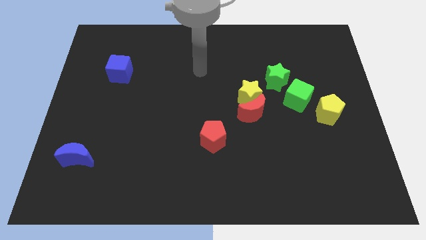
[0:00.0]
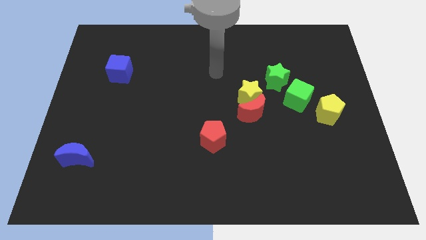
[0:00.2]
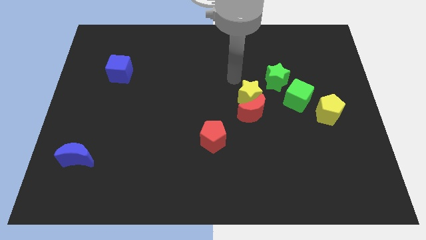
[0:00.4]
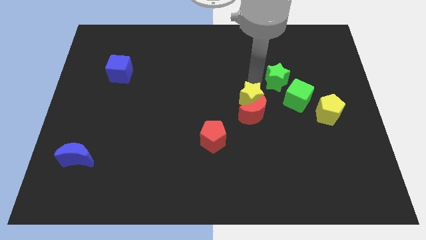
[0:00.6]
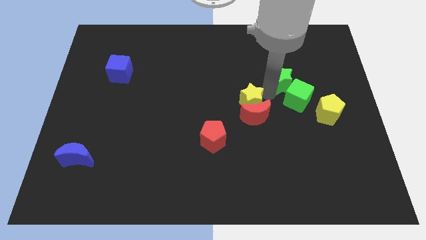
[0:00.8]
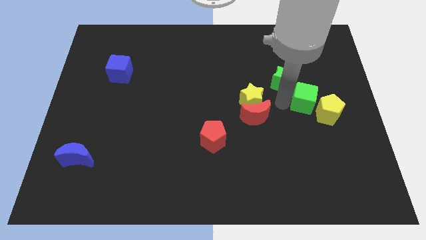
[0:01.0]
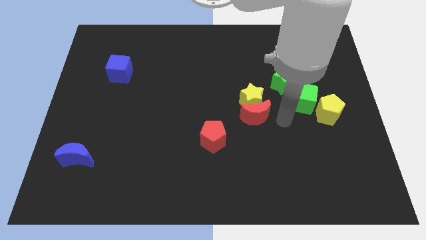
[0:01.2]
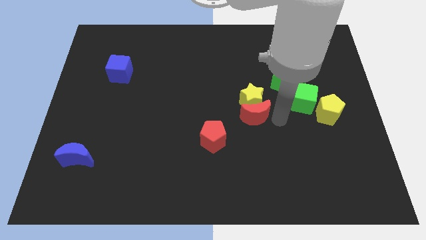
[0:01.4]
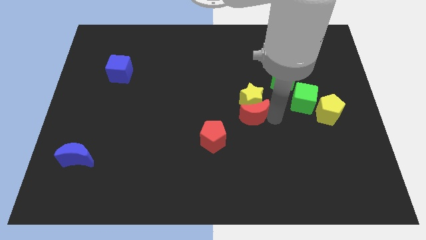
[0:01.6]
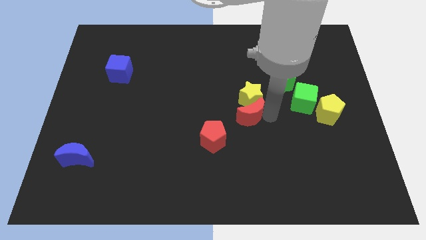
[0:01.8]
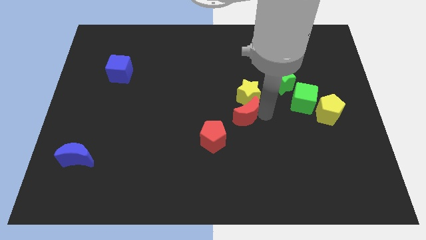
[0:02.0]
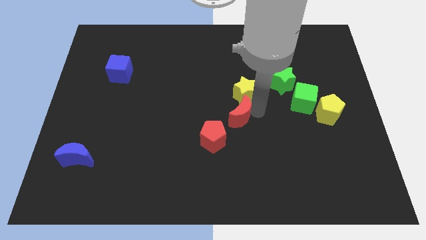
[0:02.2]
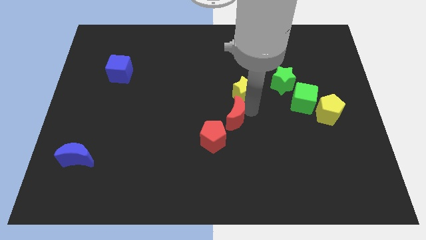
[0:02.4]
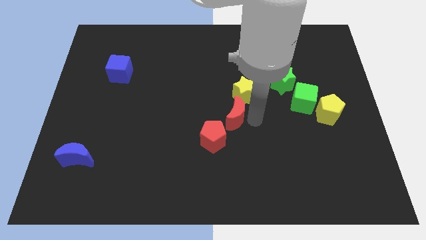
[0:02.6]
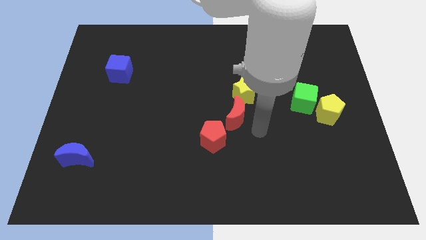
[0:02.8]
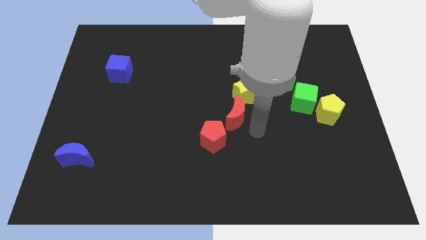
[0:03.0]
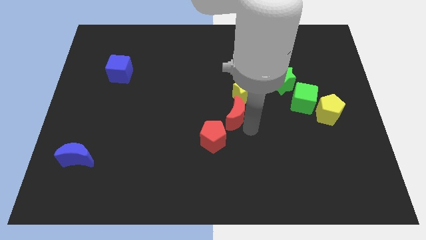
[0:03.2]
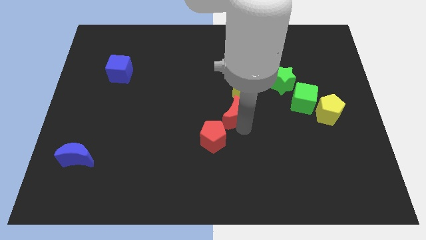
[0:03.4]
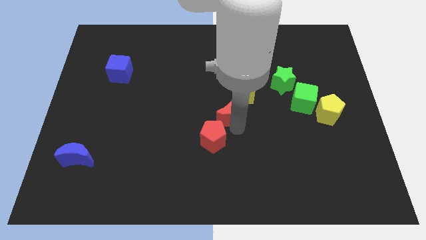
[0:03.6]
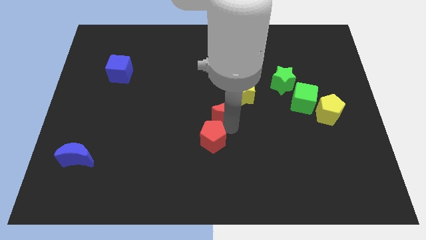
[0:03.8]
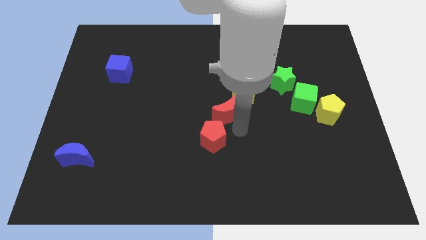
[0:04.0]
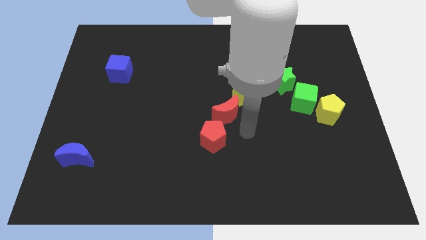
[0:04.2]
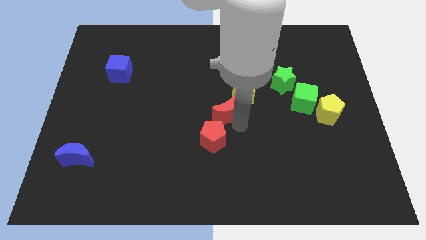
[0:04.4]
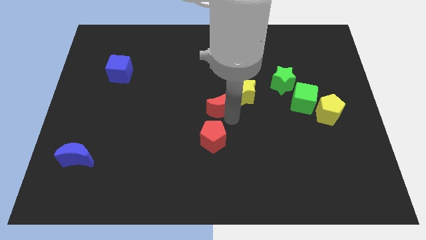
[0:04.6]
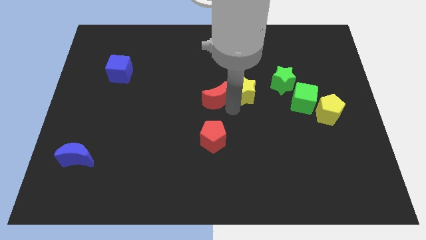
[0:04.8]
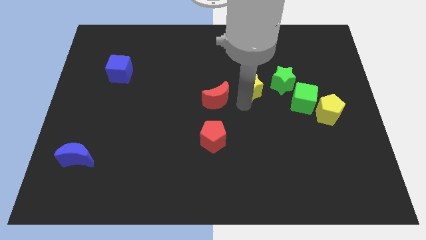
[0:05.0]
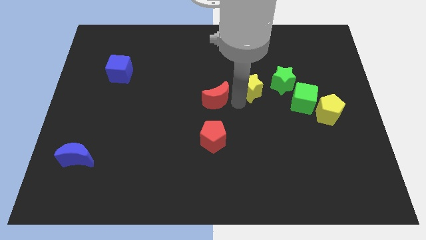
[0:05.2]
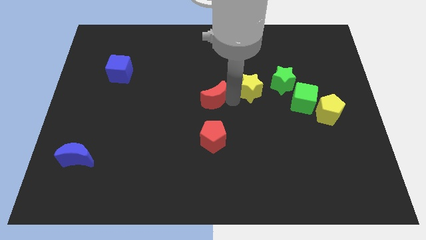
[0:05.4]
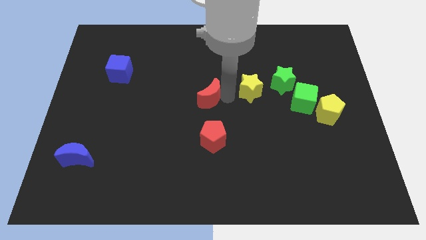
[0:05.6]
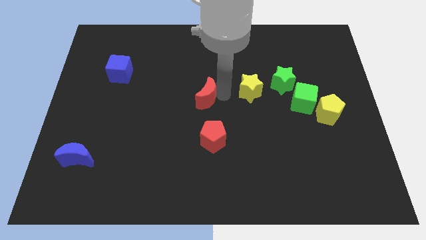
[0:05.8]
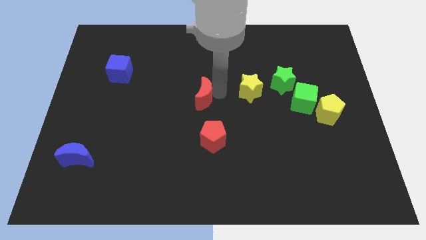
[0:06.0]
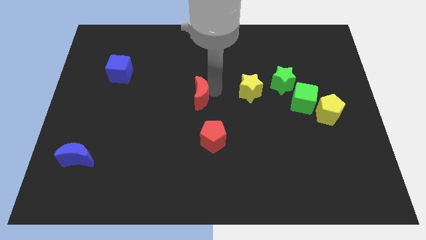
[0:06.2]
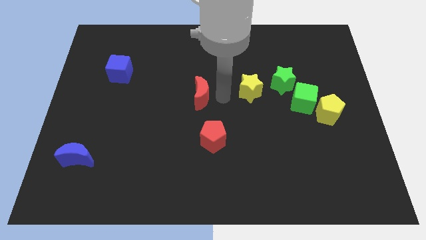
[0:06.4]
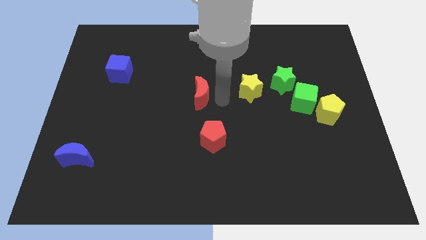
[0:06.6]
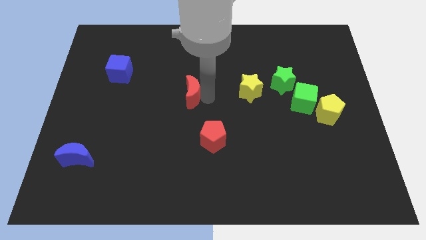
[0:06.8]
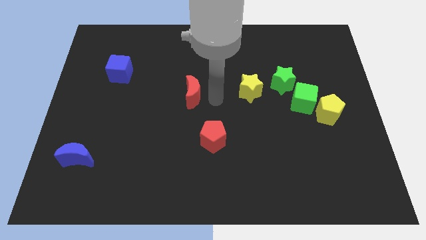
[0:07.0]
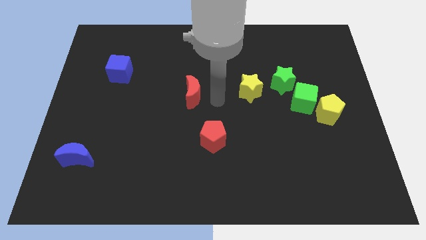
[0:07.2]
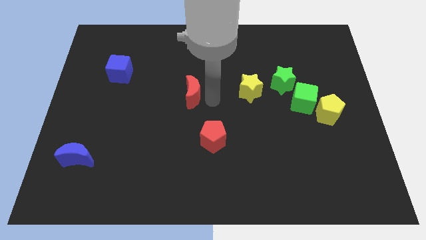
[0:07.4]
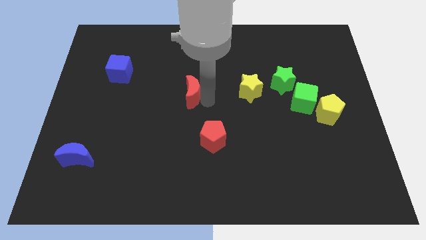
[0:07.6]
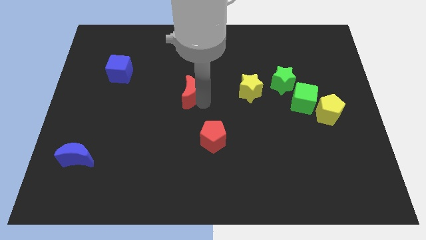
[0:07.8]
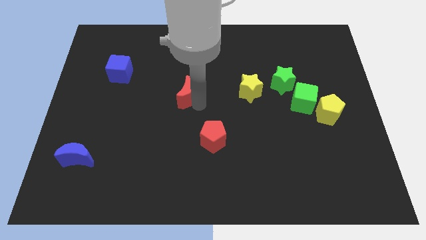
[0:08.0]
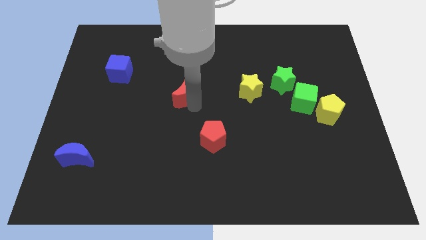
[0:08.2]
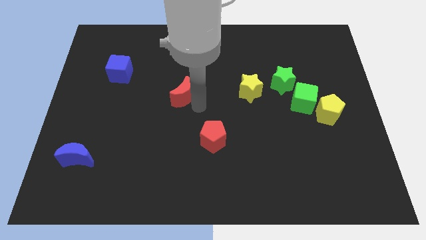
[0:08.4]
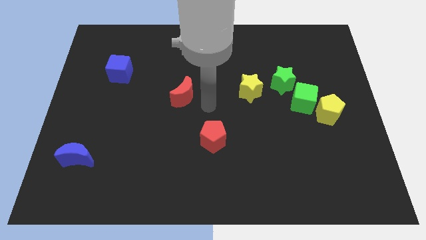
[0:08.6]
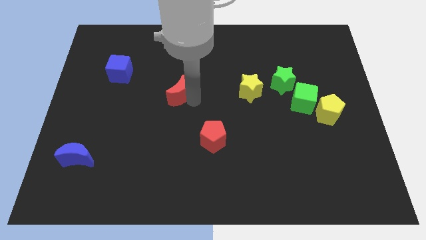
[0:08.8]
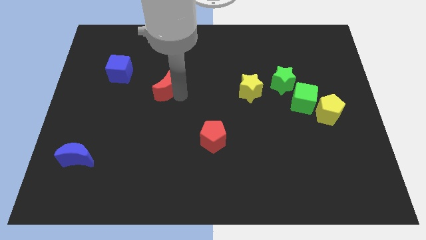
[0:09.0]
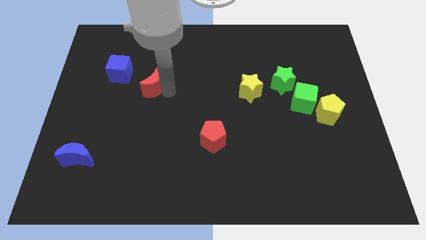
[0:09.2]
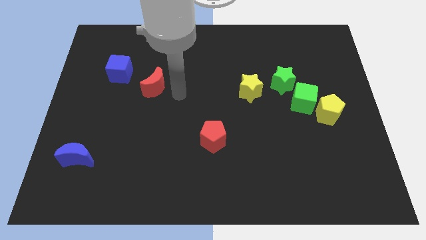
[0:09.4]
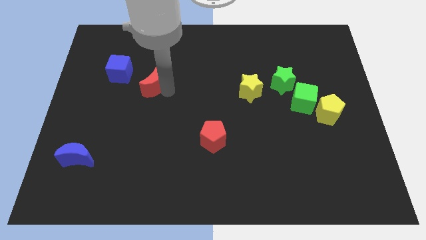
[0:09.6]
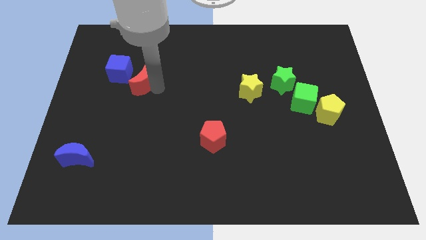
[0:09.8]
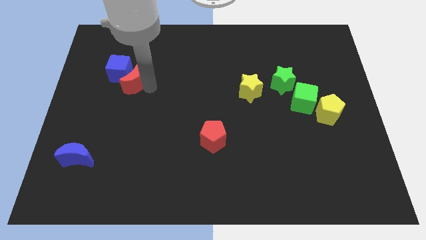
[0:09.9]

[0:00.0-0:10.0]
push the red moon towards the blue cube

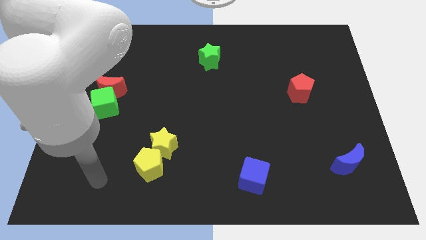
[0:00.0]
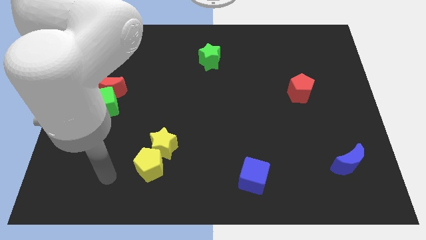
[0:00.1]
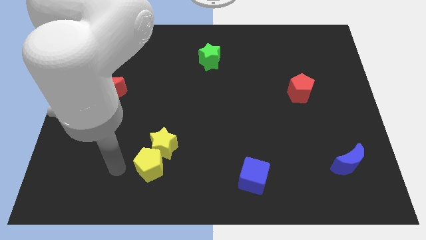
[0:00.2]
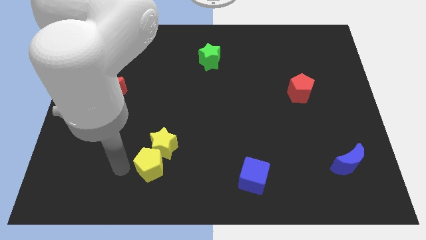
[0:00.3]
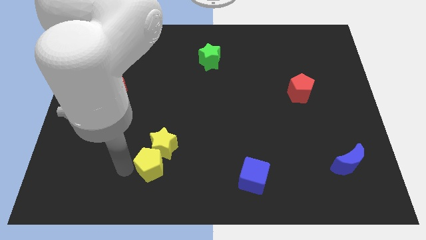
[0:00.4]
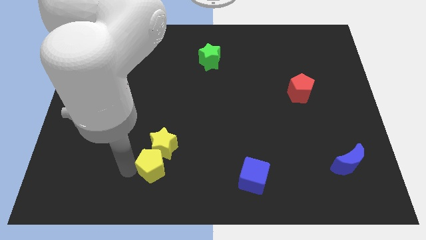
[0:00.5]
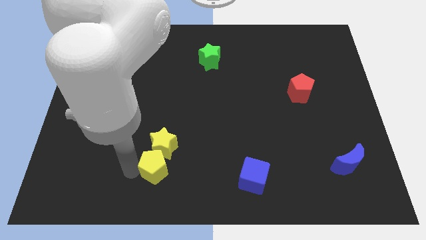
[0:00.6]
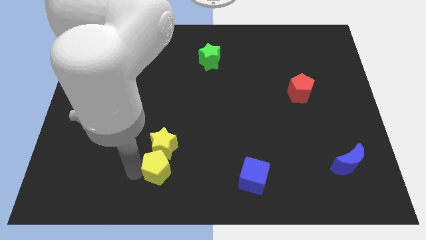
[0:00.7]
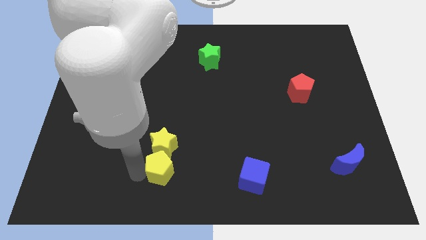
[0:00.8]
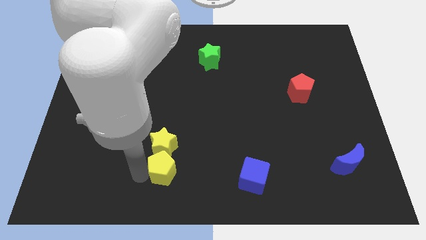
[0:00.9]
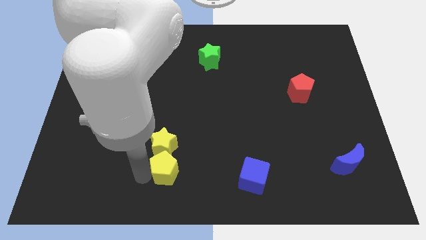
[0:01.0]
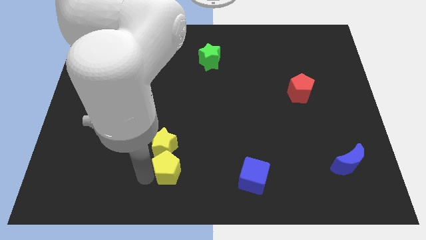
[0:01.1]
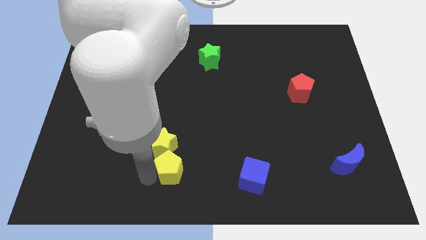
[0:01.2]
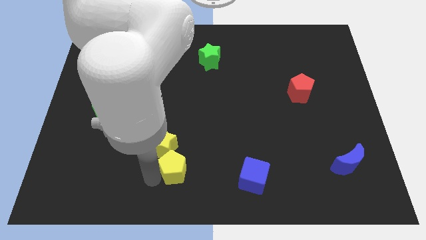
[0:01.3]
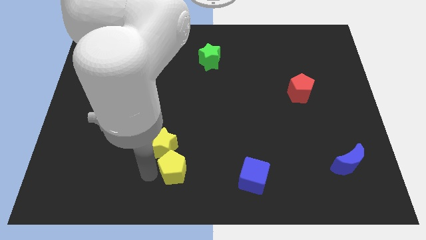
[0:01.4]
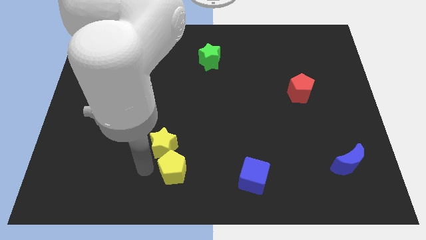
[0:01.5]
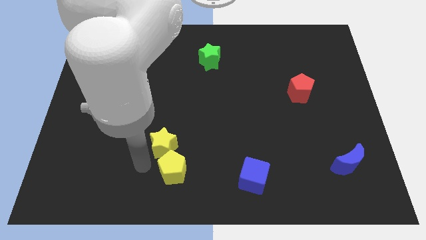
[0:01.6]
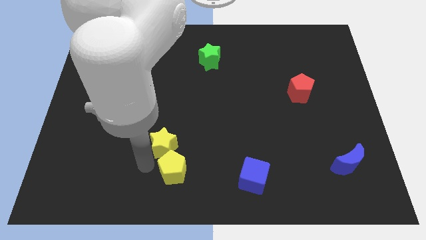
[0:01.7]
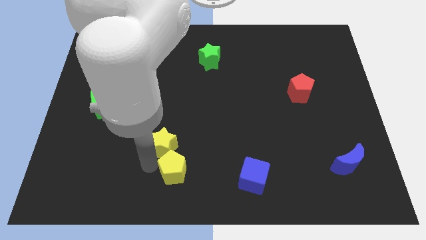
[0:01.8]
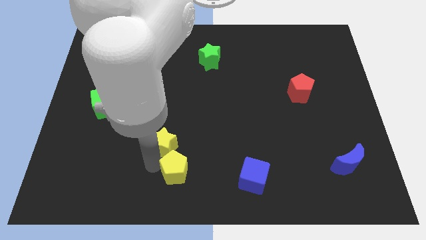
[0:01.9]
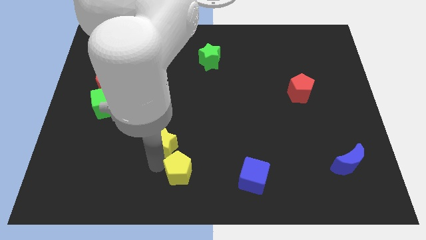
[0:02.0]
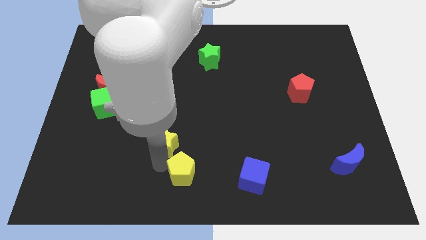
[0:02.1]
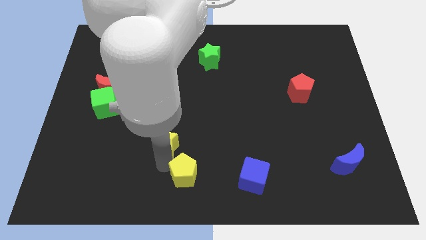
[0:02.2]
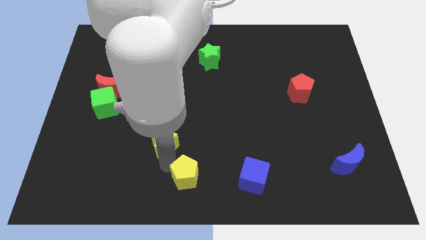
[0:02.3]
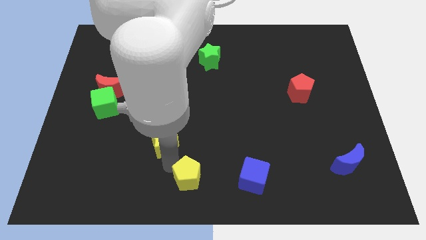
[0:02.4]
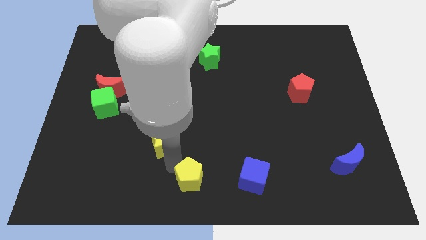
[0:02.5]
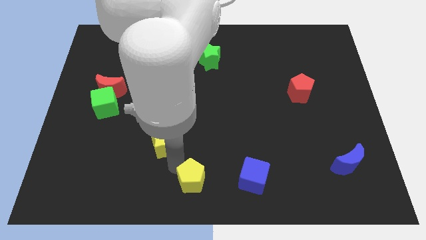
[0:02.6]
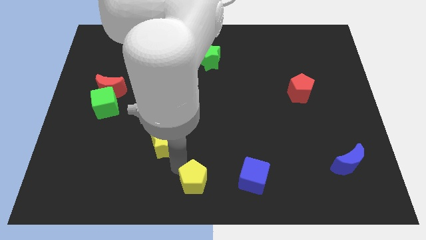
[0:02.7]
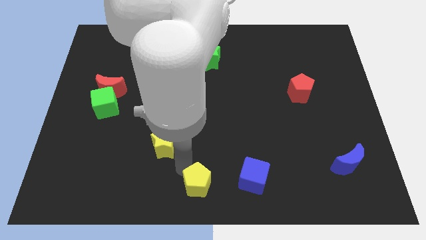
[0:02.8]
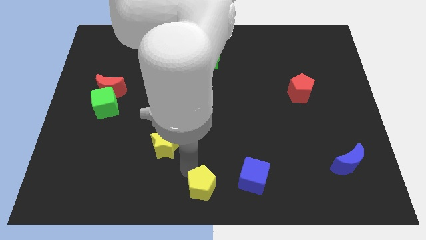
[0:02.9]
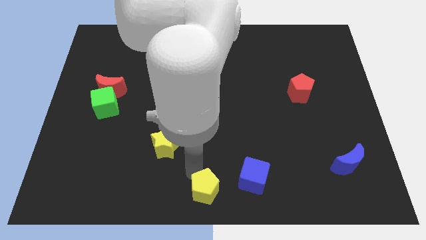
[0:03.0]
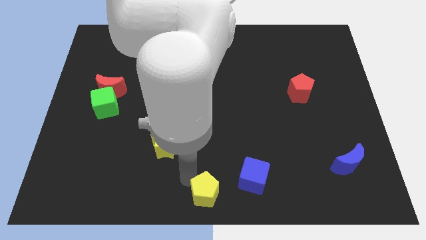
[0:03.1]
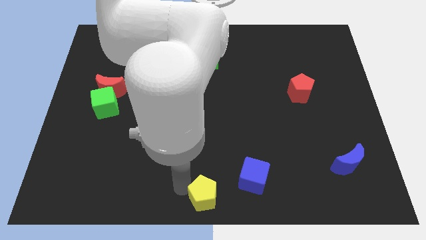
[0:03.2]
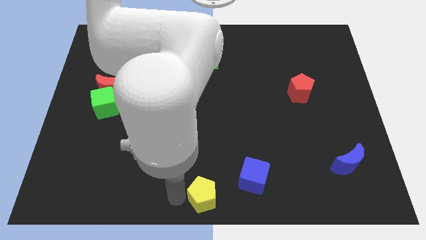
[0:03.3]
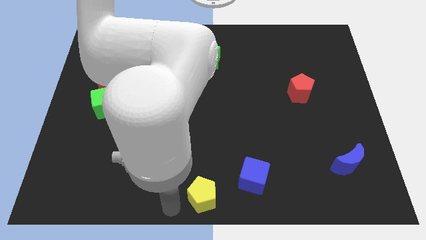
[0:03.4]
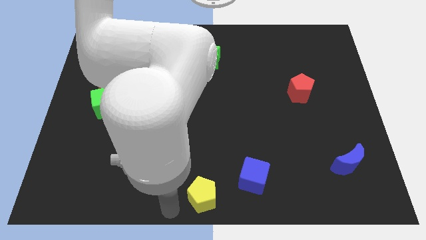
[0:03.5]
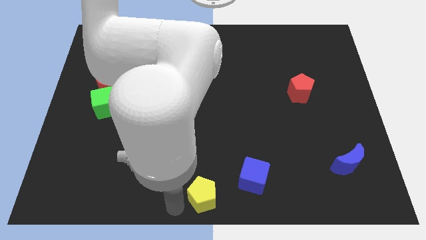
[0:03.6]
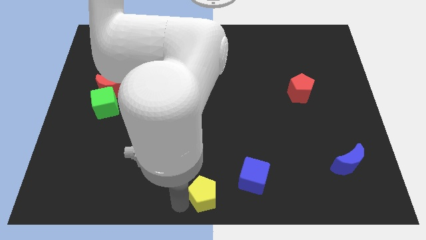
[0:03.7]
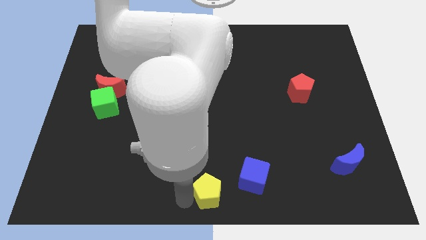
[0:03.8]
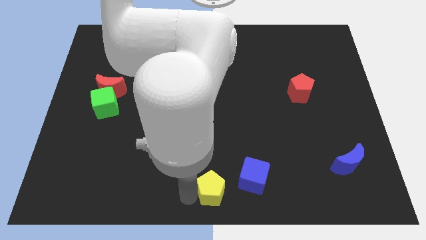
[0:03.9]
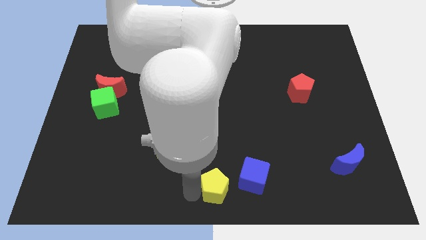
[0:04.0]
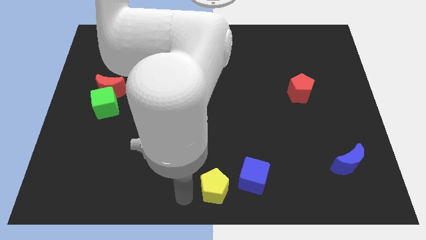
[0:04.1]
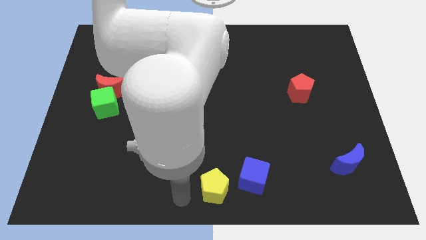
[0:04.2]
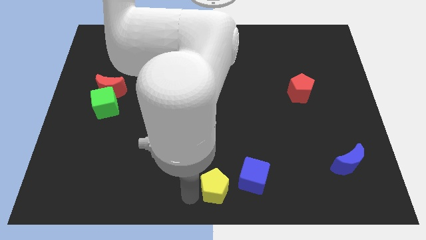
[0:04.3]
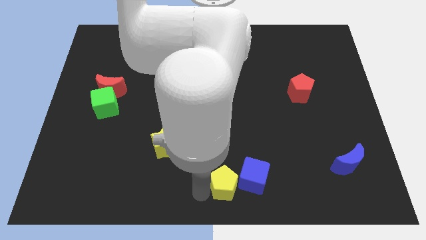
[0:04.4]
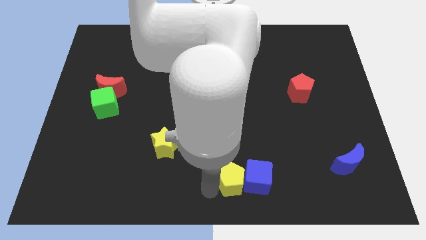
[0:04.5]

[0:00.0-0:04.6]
slide the yellow pentagon towards the blue cube
